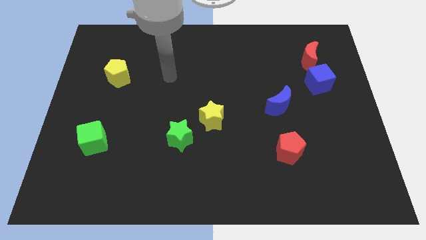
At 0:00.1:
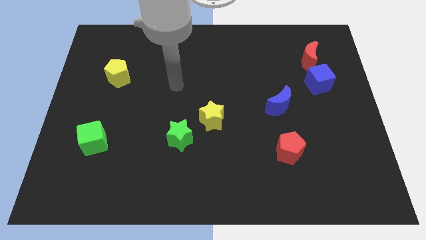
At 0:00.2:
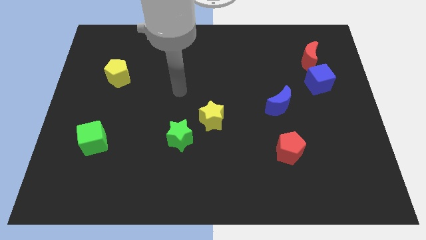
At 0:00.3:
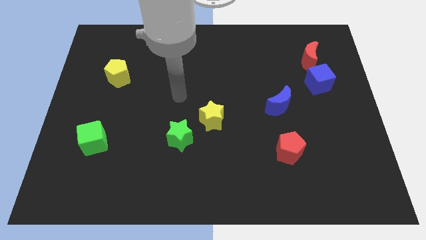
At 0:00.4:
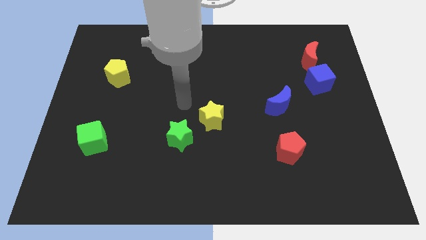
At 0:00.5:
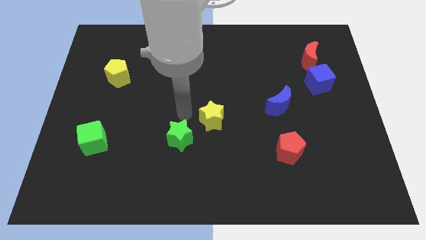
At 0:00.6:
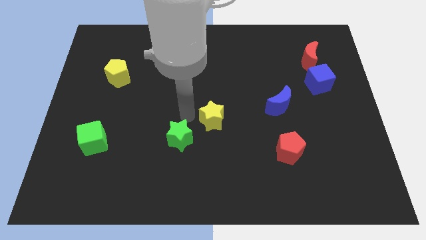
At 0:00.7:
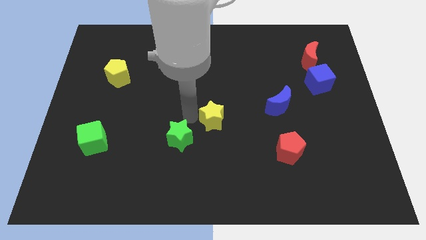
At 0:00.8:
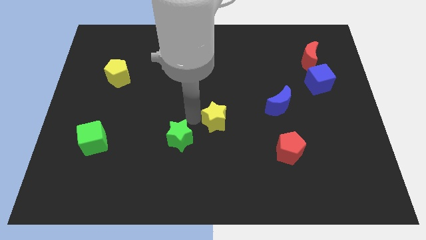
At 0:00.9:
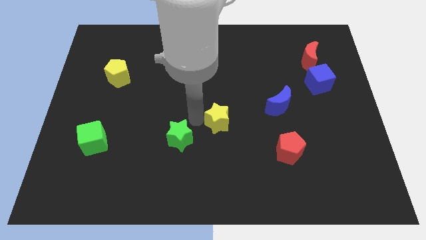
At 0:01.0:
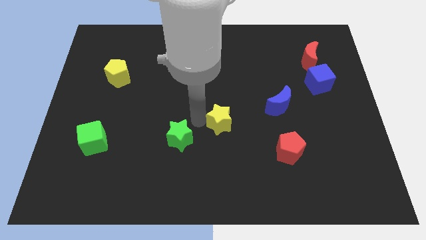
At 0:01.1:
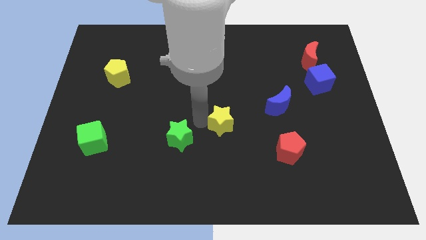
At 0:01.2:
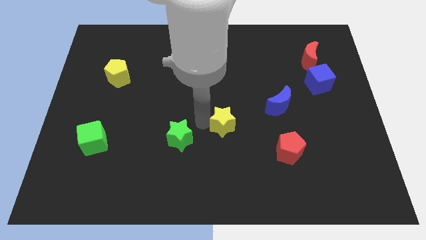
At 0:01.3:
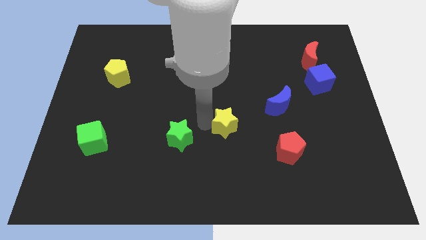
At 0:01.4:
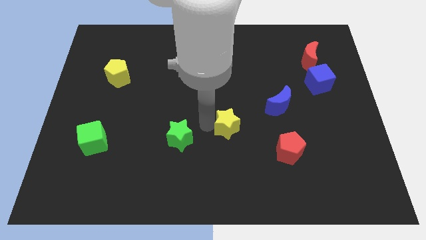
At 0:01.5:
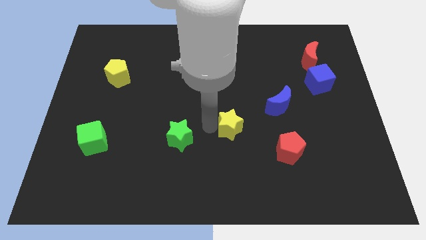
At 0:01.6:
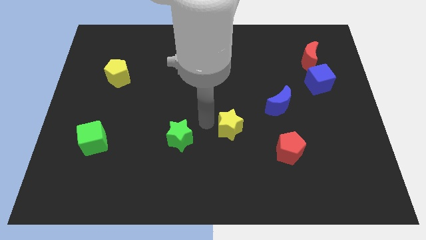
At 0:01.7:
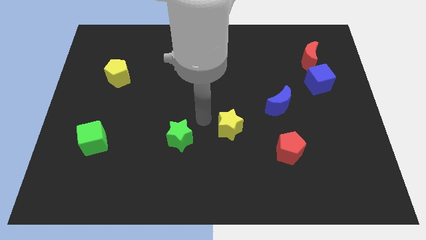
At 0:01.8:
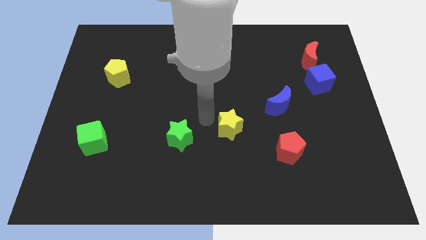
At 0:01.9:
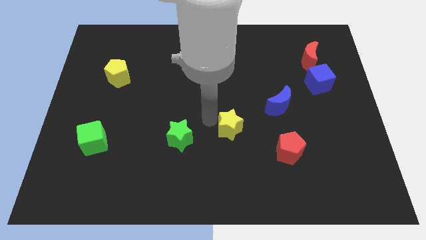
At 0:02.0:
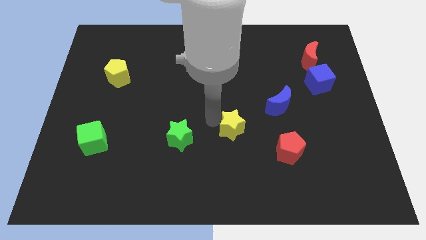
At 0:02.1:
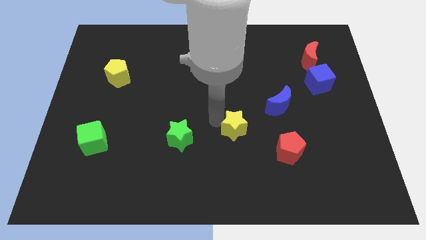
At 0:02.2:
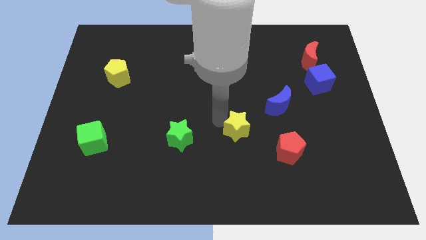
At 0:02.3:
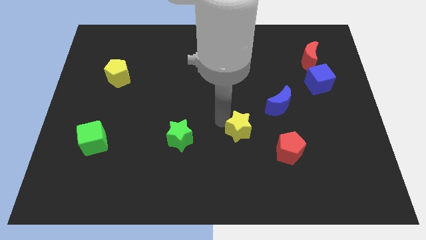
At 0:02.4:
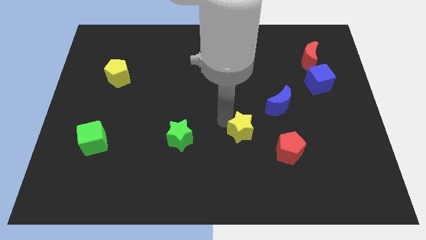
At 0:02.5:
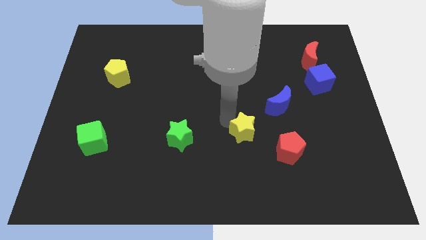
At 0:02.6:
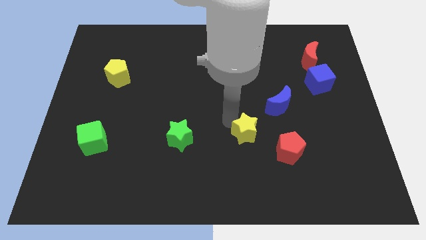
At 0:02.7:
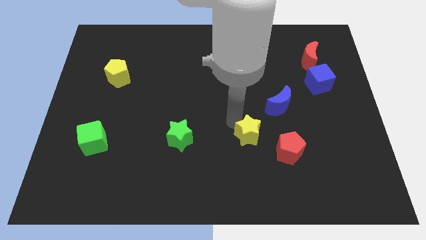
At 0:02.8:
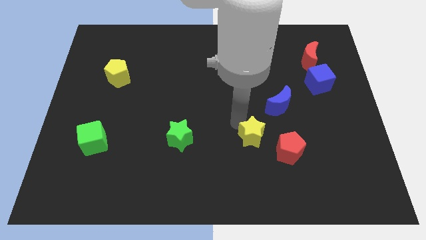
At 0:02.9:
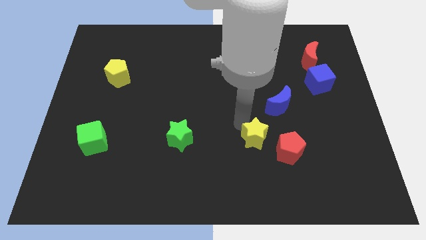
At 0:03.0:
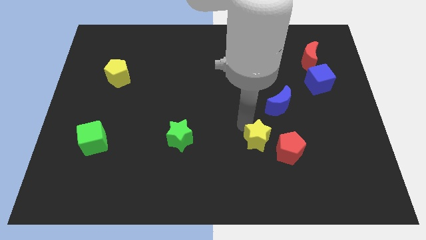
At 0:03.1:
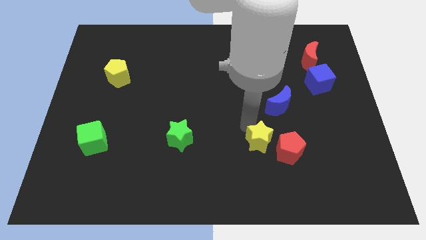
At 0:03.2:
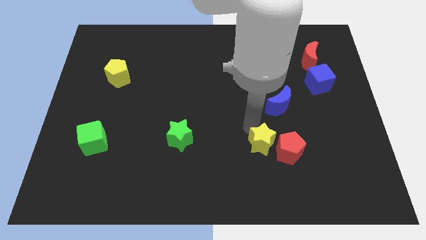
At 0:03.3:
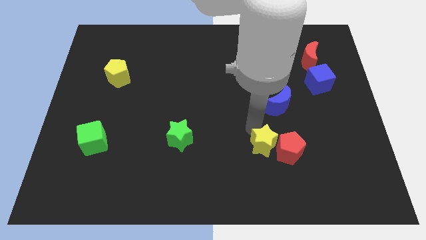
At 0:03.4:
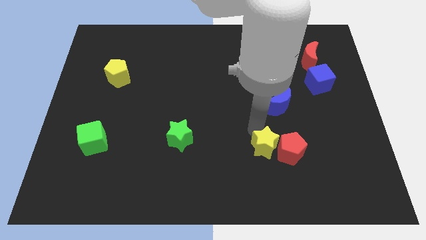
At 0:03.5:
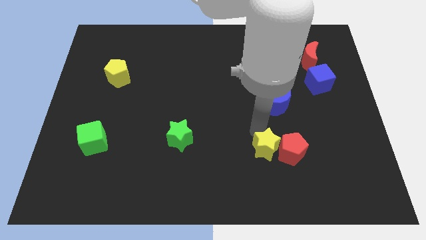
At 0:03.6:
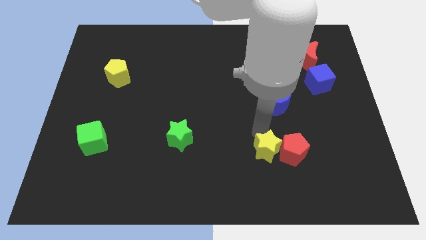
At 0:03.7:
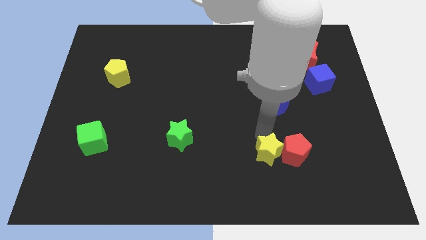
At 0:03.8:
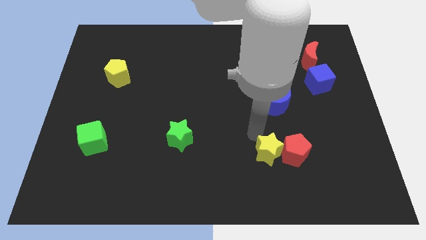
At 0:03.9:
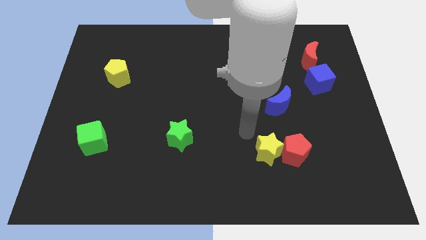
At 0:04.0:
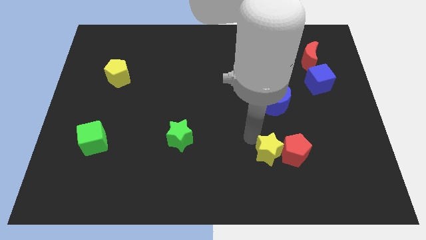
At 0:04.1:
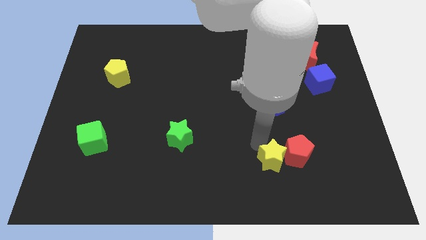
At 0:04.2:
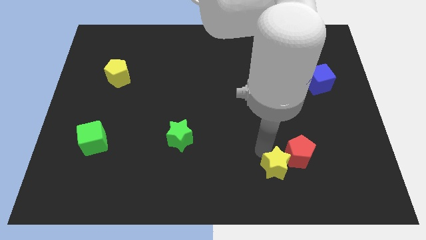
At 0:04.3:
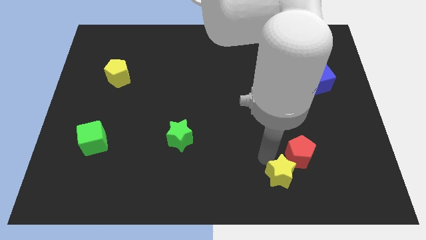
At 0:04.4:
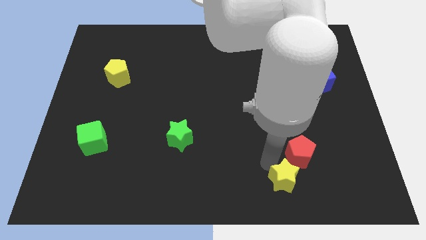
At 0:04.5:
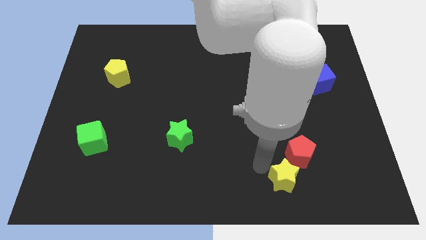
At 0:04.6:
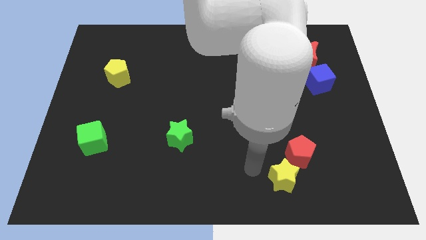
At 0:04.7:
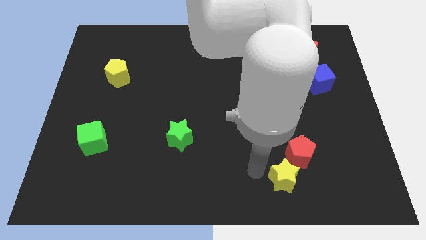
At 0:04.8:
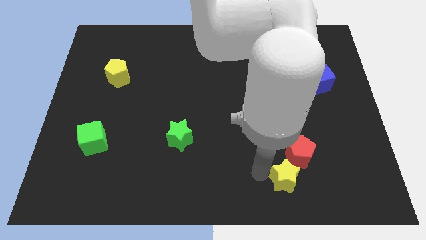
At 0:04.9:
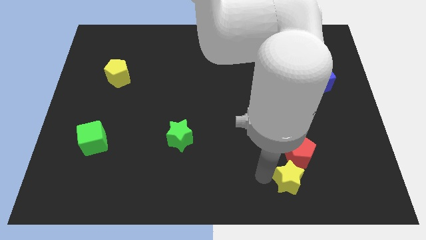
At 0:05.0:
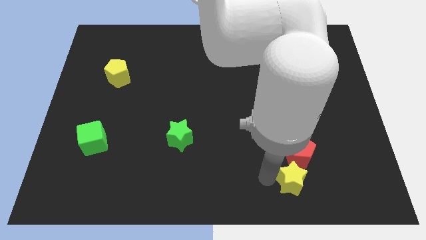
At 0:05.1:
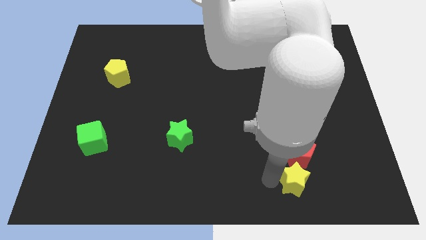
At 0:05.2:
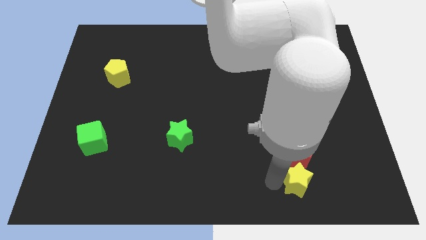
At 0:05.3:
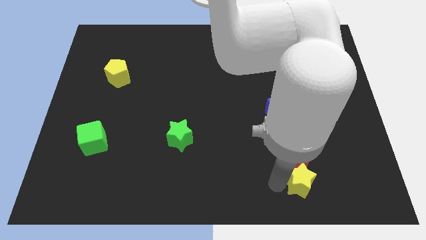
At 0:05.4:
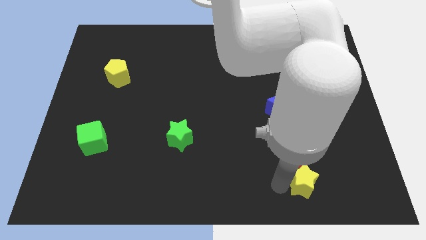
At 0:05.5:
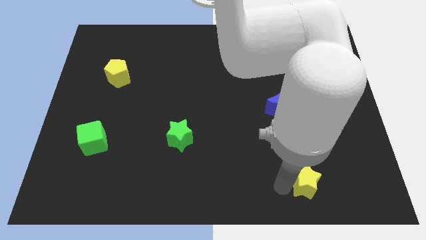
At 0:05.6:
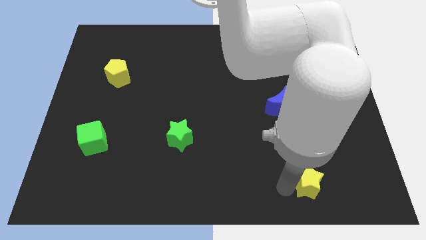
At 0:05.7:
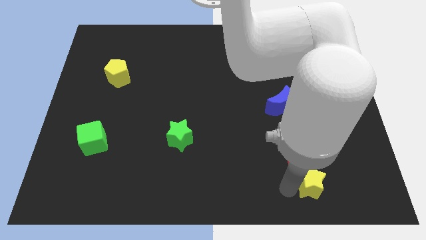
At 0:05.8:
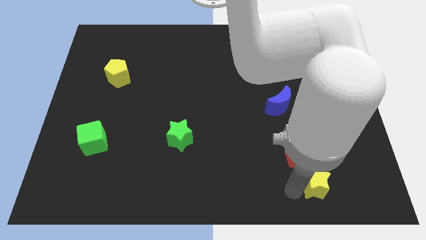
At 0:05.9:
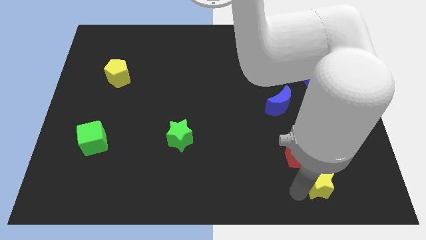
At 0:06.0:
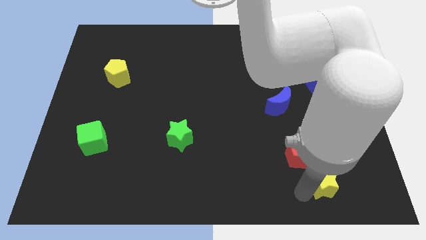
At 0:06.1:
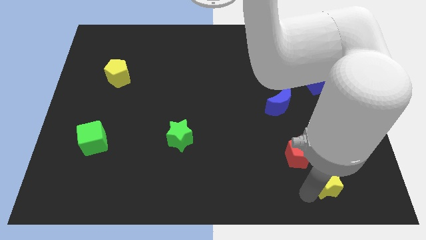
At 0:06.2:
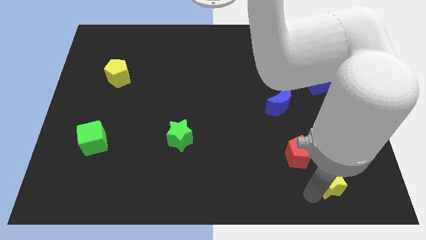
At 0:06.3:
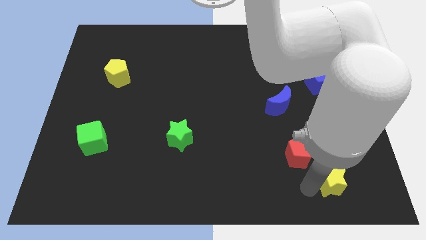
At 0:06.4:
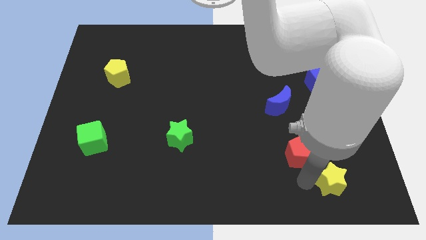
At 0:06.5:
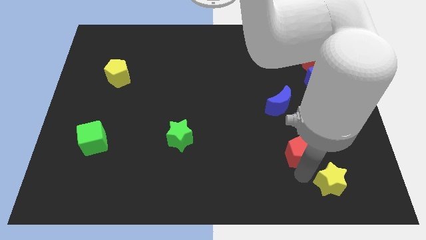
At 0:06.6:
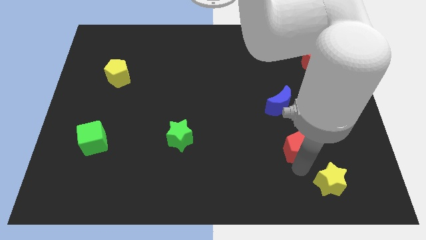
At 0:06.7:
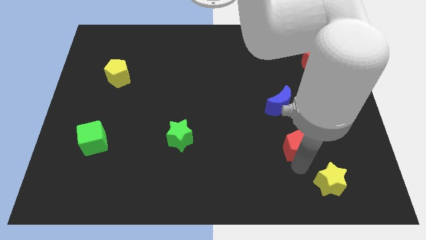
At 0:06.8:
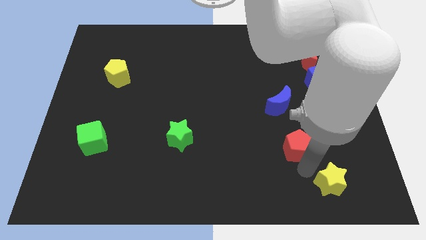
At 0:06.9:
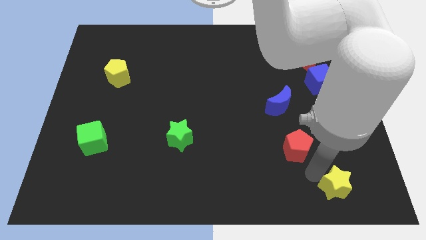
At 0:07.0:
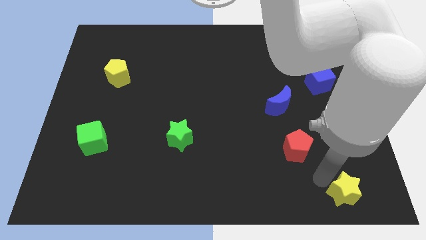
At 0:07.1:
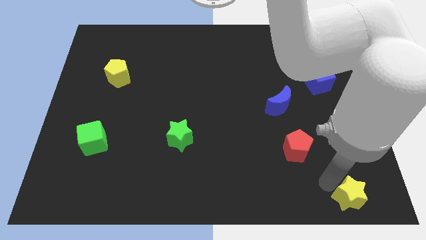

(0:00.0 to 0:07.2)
move the yellow star to the lower right corner

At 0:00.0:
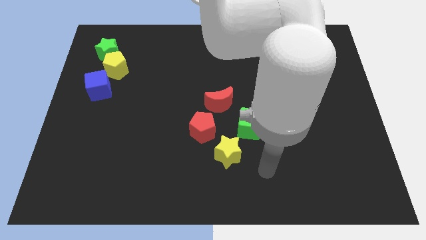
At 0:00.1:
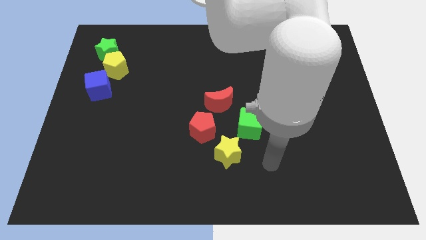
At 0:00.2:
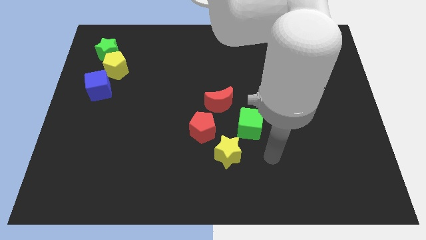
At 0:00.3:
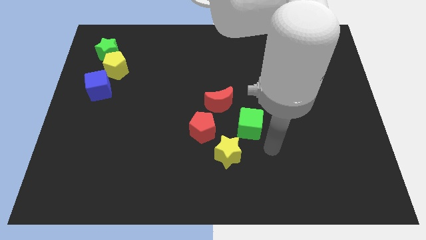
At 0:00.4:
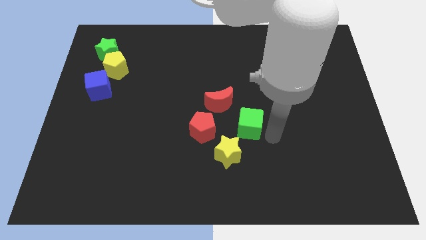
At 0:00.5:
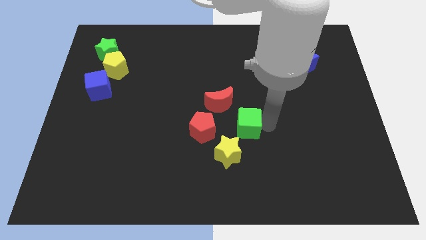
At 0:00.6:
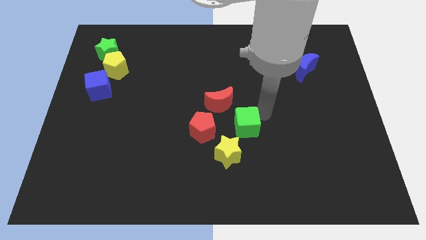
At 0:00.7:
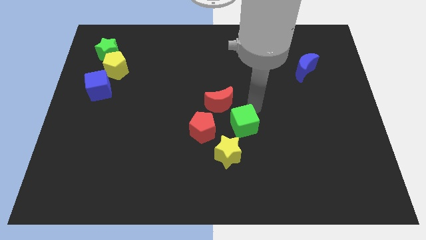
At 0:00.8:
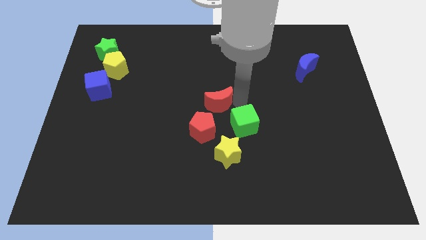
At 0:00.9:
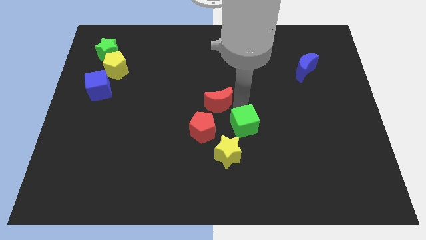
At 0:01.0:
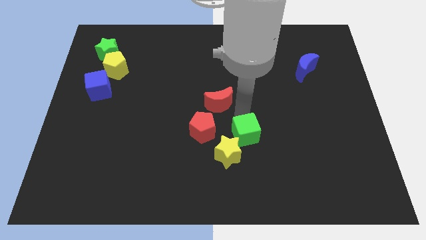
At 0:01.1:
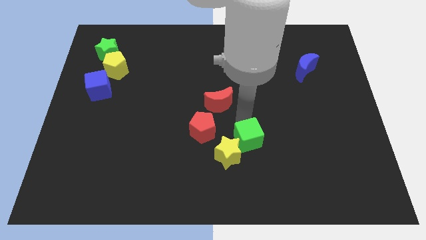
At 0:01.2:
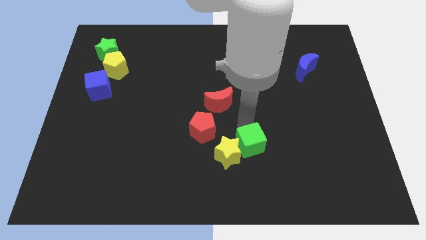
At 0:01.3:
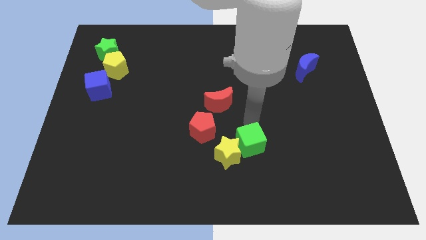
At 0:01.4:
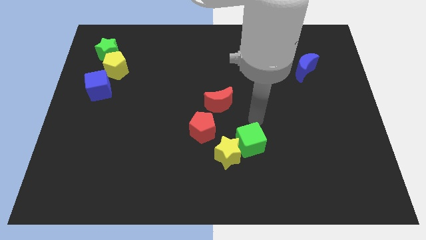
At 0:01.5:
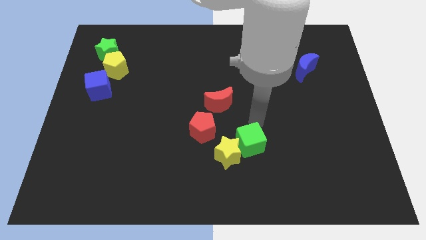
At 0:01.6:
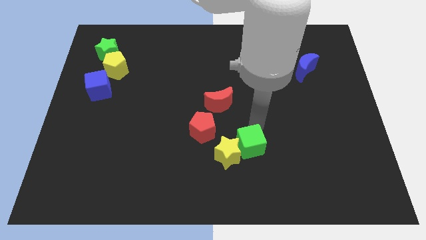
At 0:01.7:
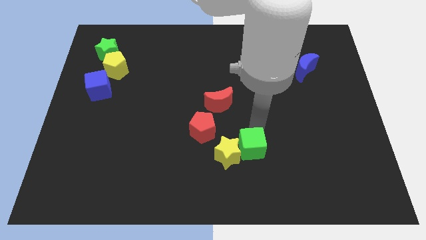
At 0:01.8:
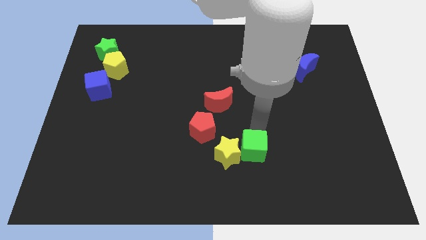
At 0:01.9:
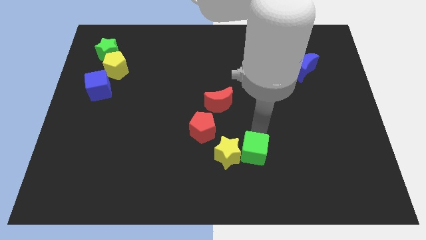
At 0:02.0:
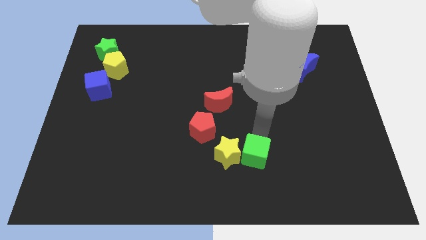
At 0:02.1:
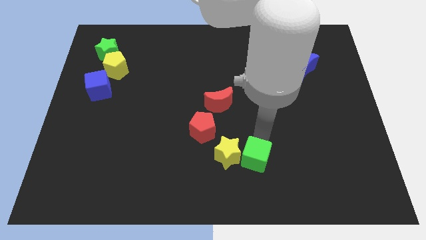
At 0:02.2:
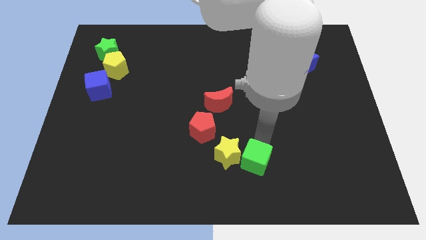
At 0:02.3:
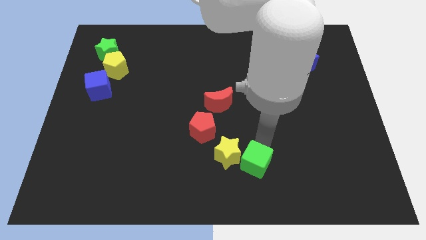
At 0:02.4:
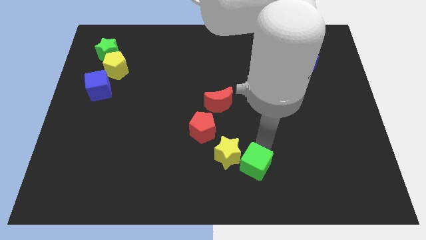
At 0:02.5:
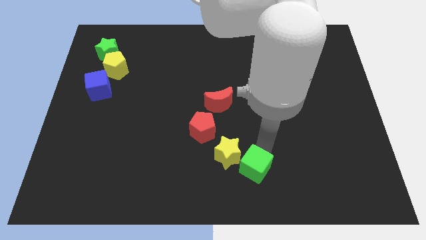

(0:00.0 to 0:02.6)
push the green cube to the bottom
